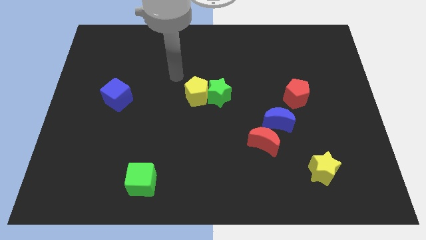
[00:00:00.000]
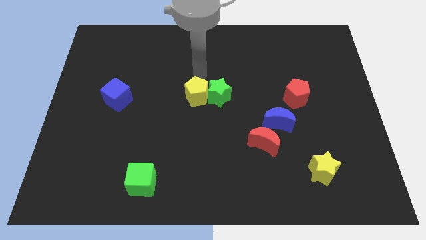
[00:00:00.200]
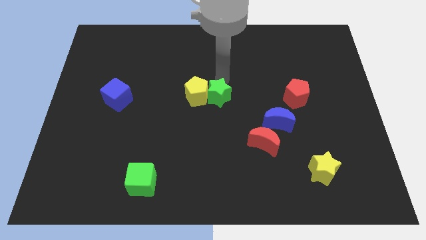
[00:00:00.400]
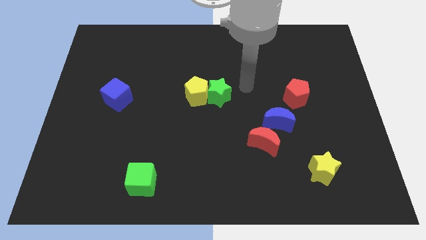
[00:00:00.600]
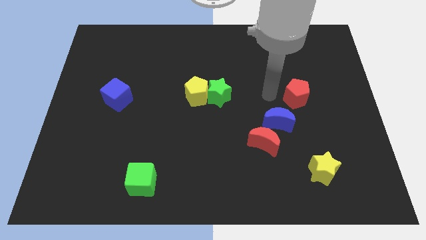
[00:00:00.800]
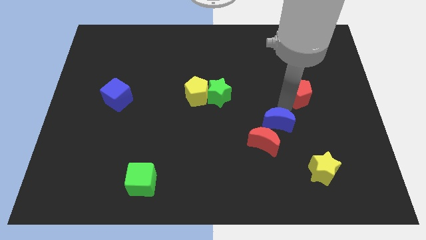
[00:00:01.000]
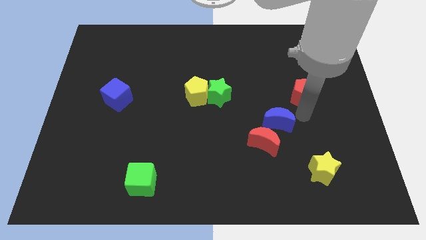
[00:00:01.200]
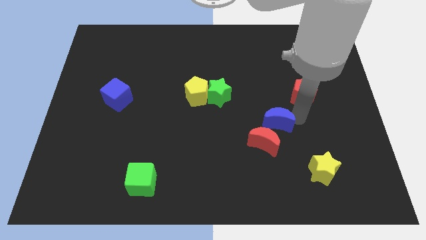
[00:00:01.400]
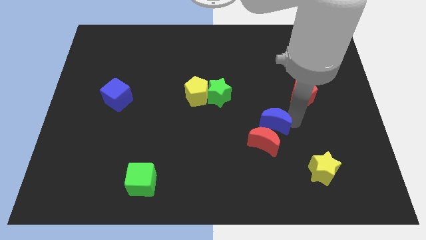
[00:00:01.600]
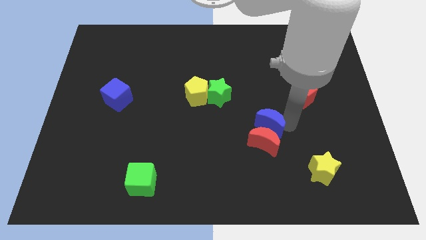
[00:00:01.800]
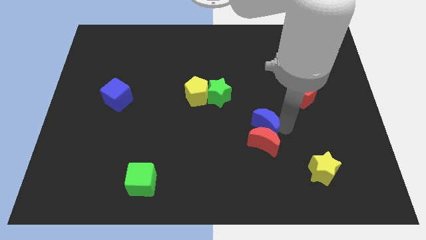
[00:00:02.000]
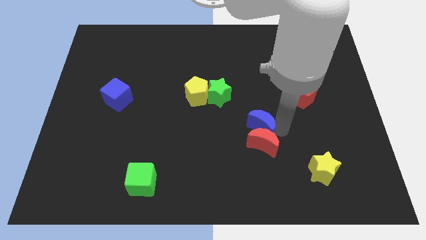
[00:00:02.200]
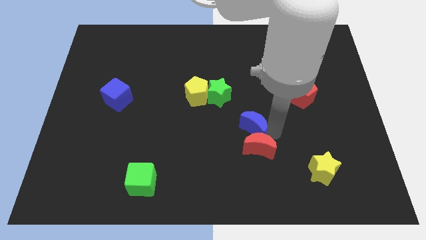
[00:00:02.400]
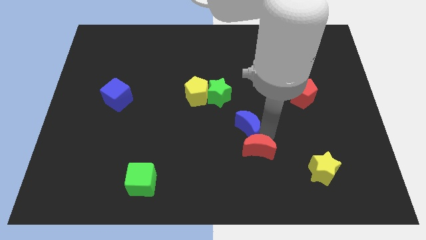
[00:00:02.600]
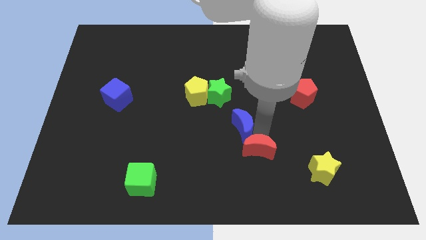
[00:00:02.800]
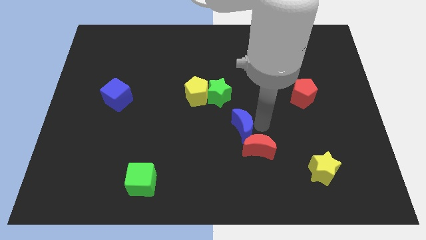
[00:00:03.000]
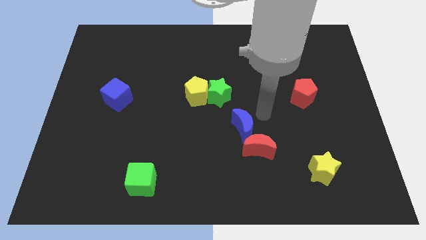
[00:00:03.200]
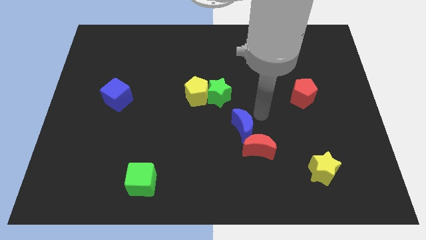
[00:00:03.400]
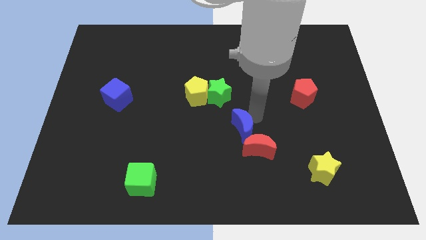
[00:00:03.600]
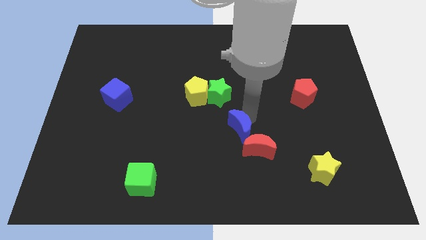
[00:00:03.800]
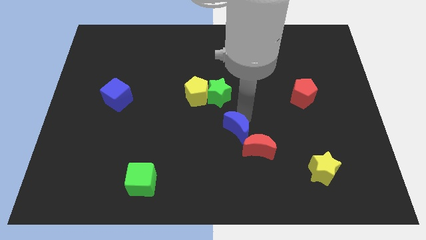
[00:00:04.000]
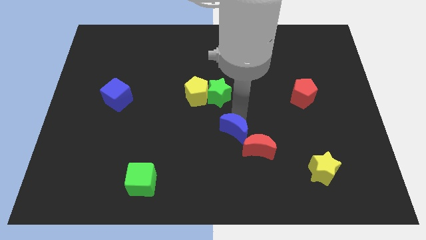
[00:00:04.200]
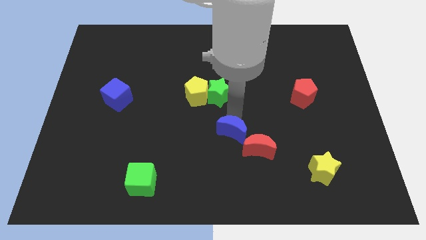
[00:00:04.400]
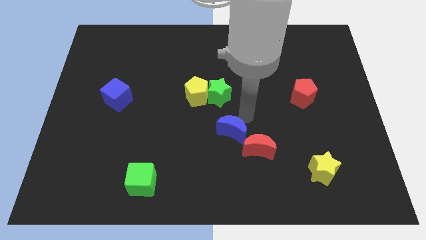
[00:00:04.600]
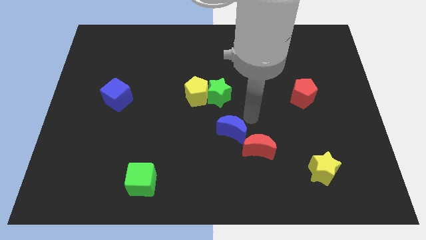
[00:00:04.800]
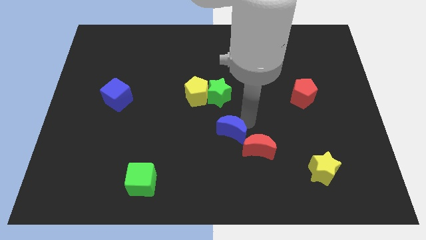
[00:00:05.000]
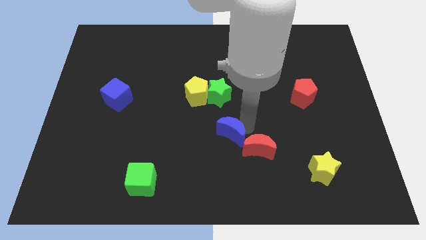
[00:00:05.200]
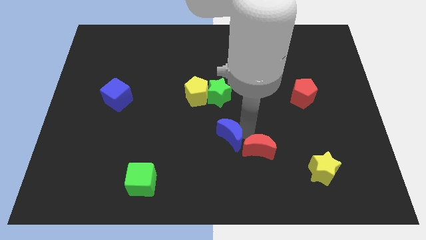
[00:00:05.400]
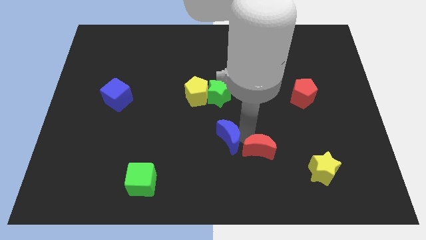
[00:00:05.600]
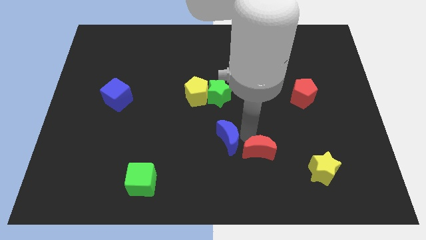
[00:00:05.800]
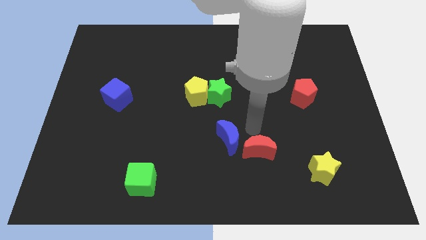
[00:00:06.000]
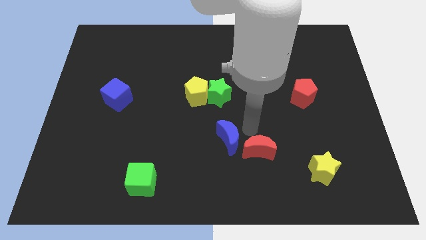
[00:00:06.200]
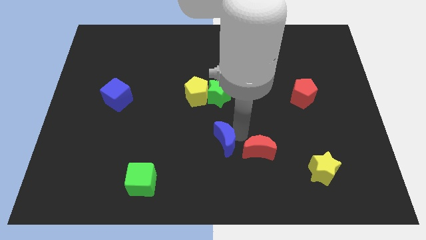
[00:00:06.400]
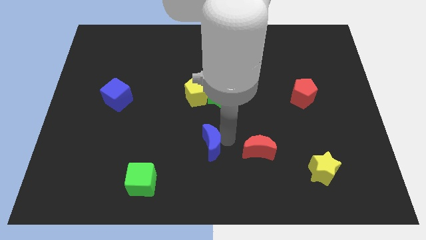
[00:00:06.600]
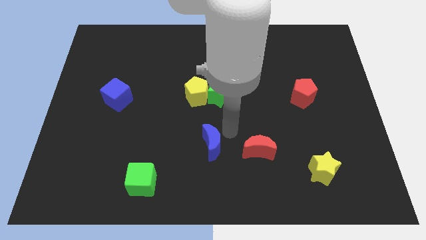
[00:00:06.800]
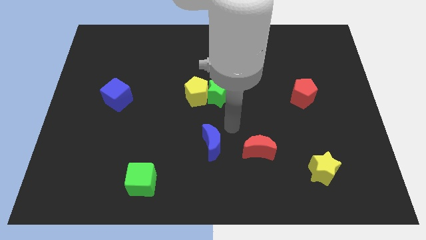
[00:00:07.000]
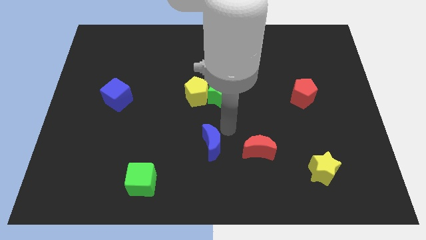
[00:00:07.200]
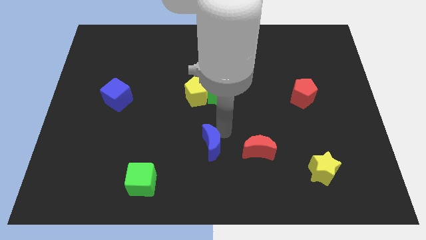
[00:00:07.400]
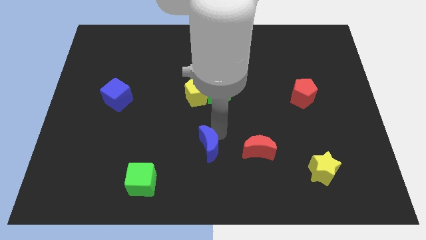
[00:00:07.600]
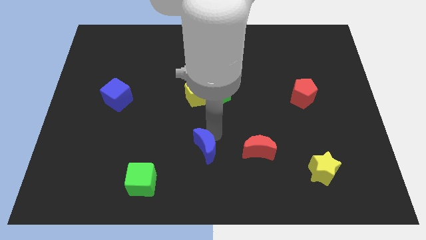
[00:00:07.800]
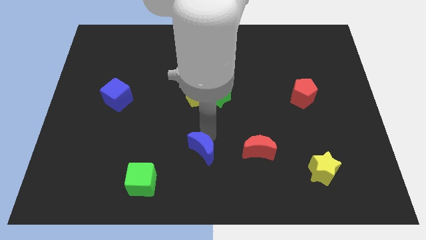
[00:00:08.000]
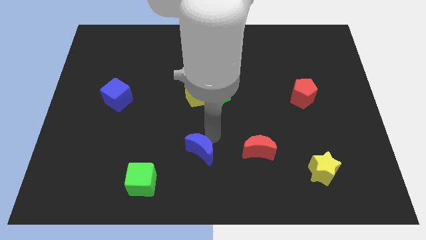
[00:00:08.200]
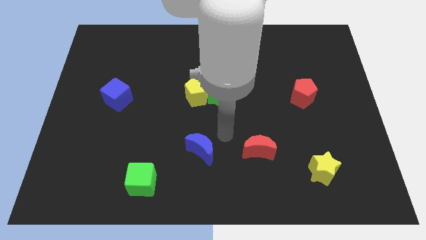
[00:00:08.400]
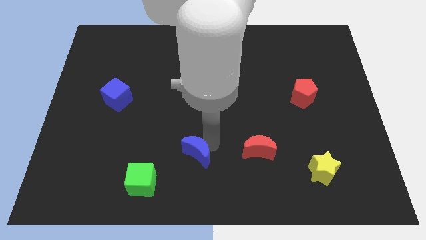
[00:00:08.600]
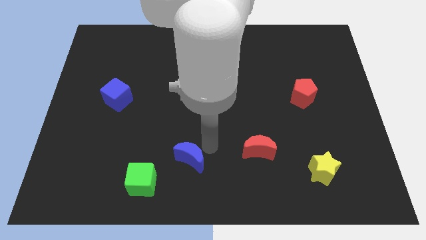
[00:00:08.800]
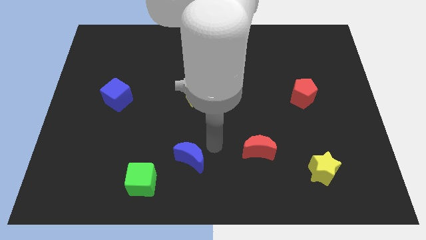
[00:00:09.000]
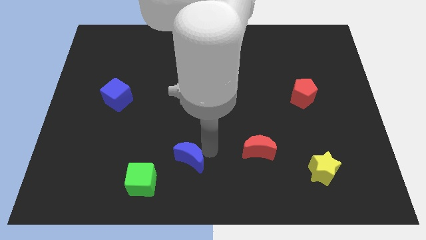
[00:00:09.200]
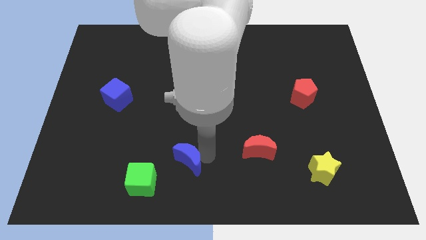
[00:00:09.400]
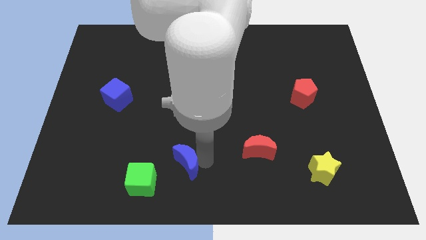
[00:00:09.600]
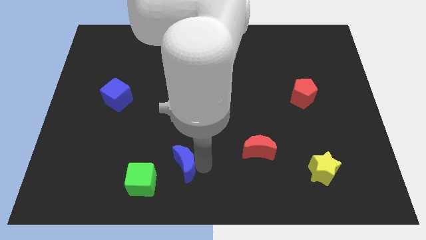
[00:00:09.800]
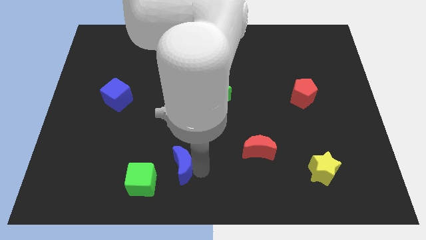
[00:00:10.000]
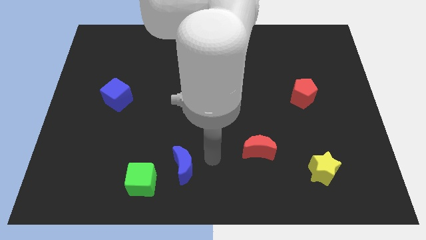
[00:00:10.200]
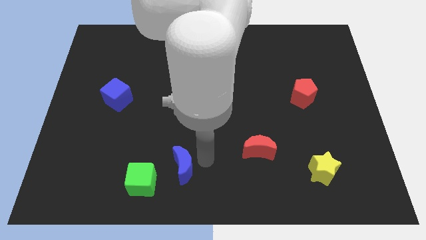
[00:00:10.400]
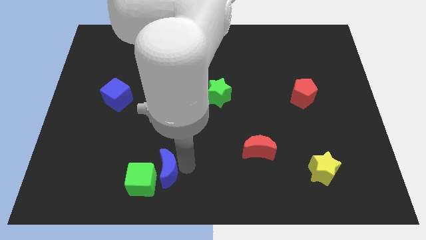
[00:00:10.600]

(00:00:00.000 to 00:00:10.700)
put the blue moon towards the green cube
